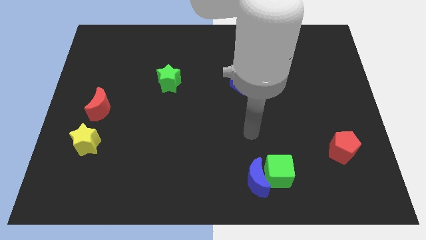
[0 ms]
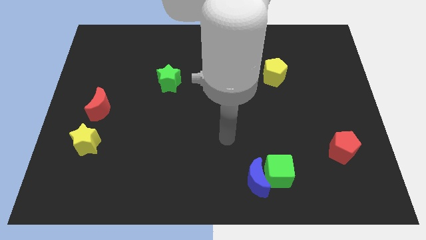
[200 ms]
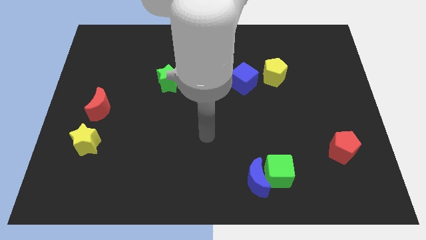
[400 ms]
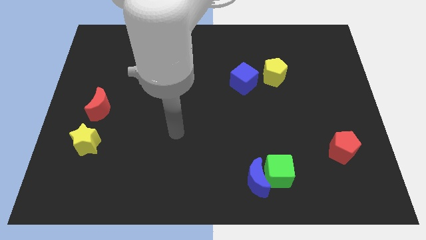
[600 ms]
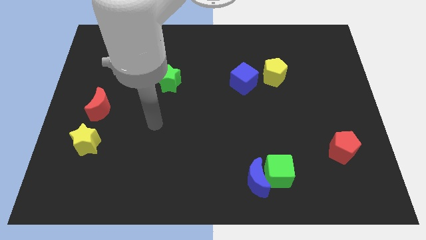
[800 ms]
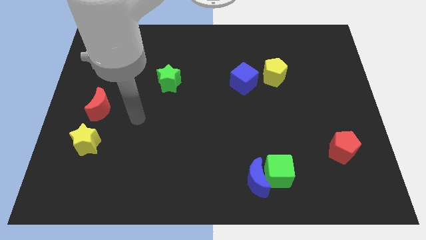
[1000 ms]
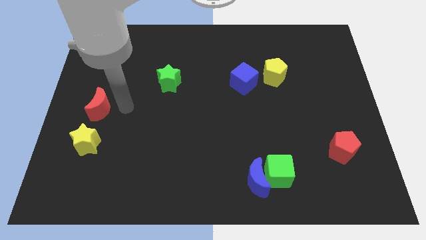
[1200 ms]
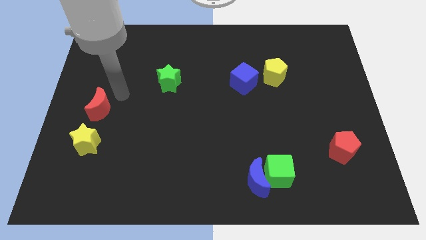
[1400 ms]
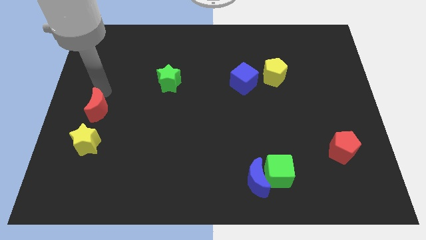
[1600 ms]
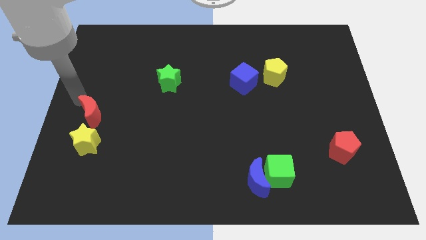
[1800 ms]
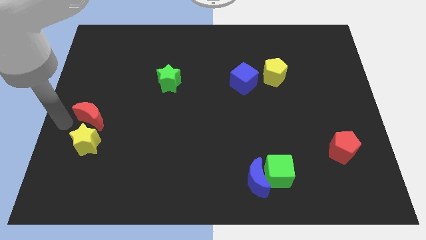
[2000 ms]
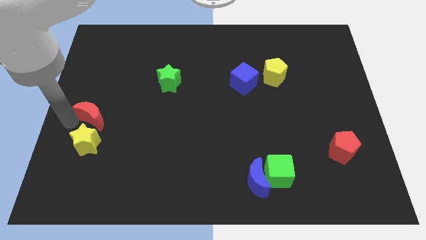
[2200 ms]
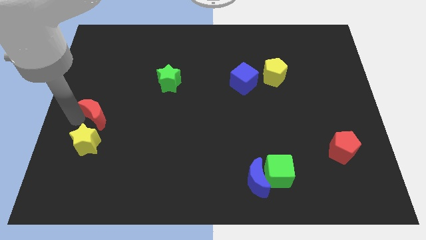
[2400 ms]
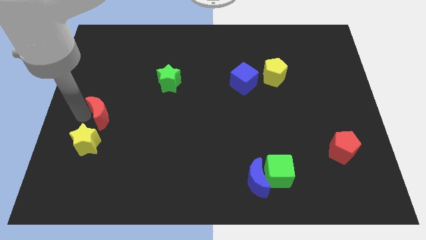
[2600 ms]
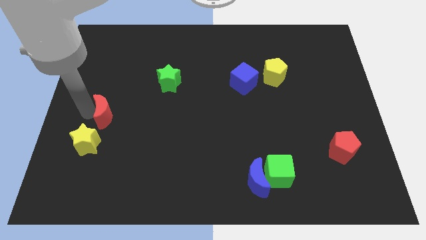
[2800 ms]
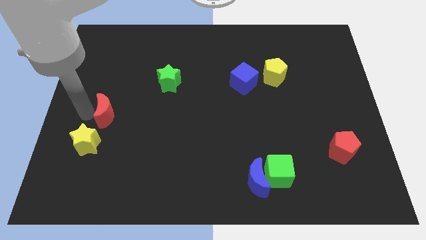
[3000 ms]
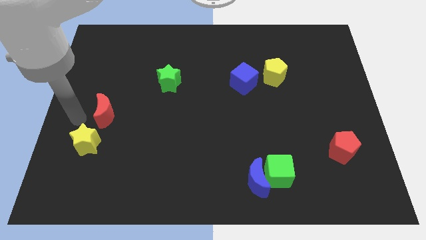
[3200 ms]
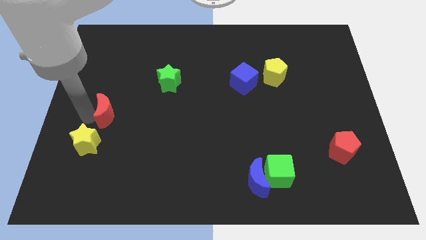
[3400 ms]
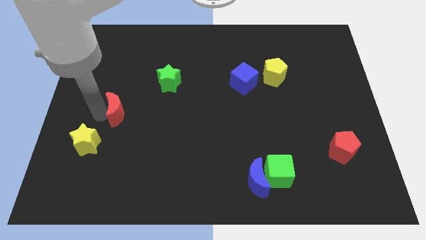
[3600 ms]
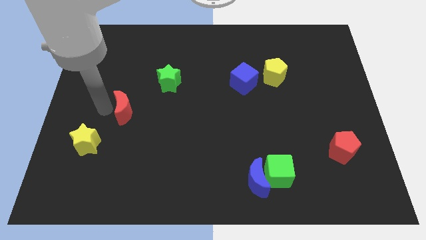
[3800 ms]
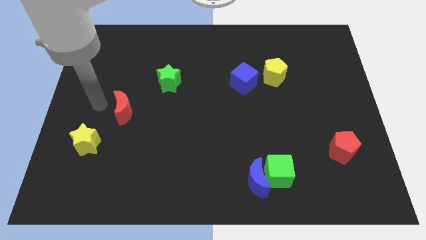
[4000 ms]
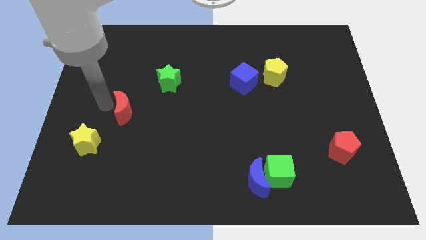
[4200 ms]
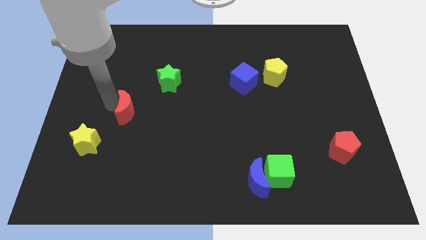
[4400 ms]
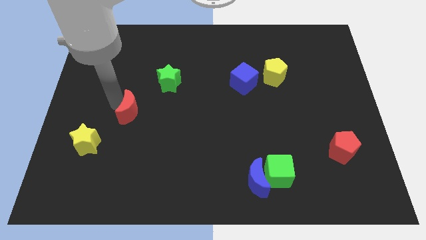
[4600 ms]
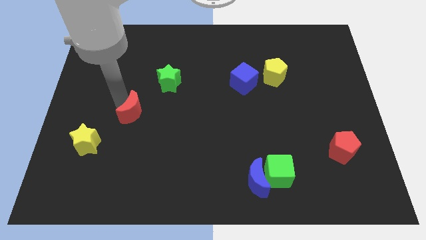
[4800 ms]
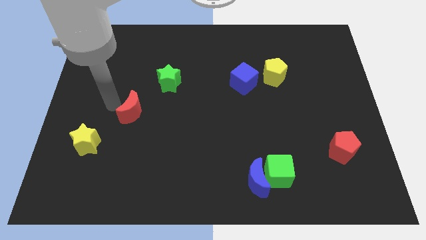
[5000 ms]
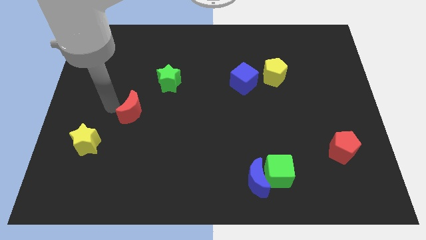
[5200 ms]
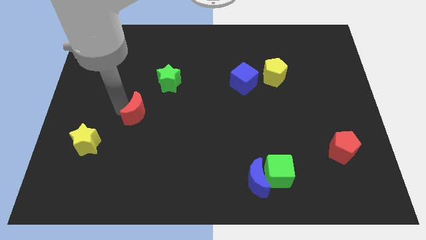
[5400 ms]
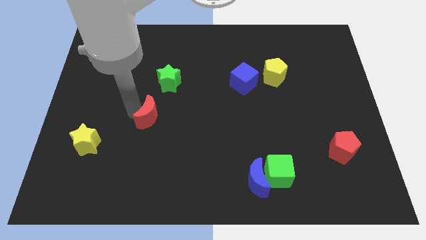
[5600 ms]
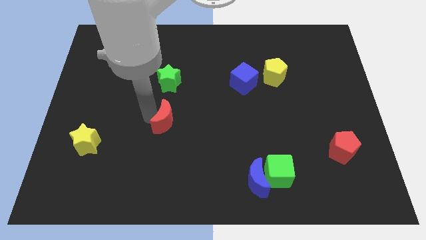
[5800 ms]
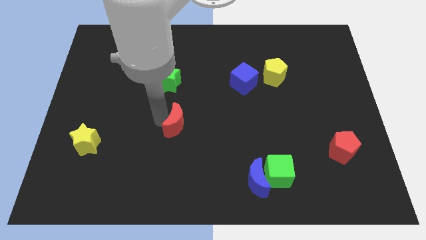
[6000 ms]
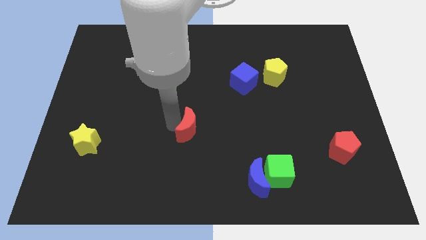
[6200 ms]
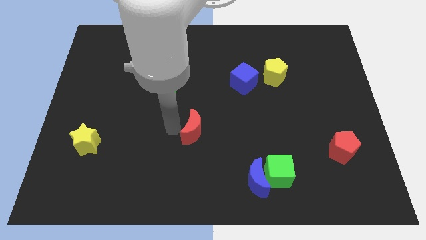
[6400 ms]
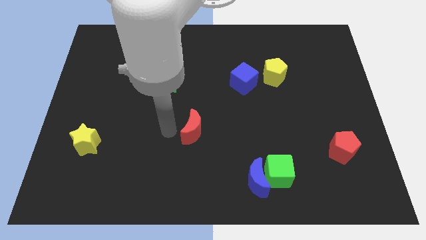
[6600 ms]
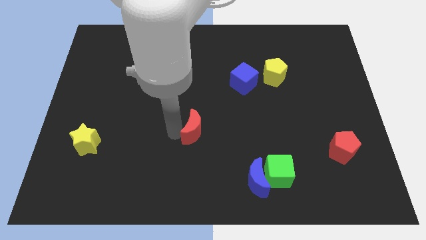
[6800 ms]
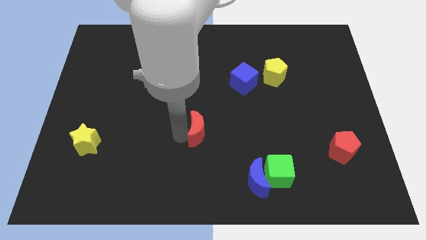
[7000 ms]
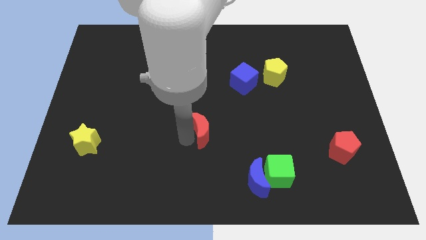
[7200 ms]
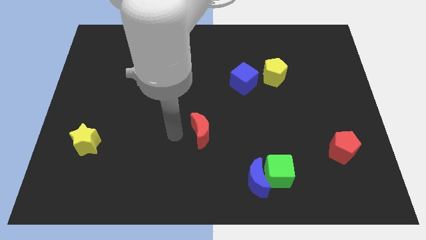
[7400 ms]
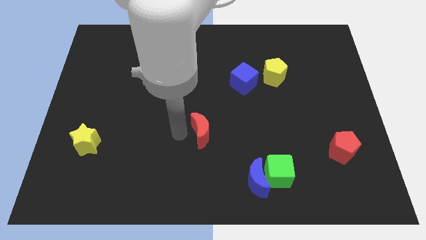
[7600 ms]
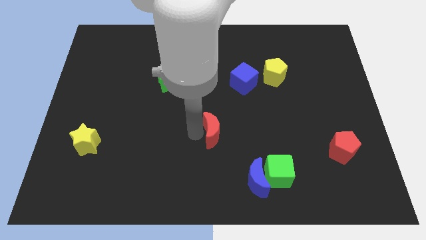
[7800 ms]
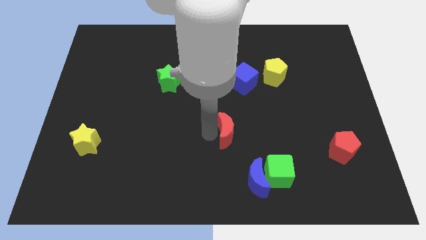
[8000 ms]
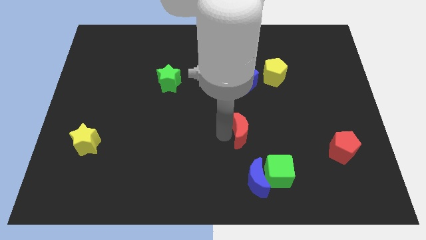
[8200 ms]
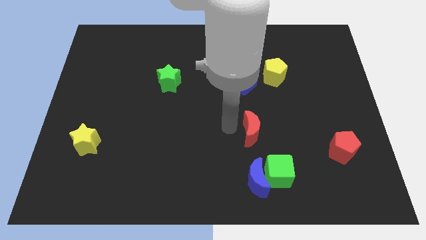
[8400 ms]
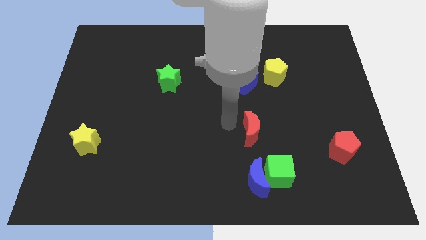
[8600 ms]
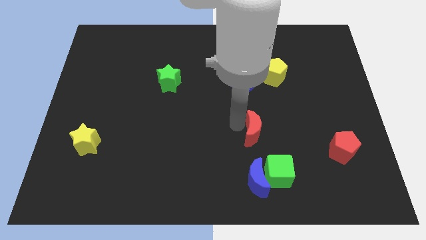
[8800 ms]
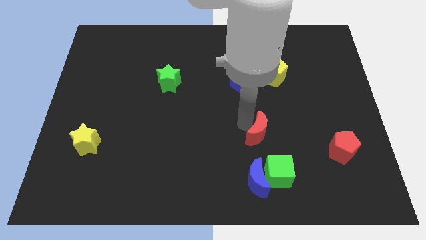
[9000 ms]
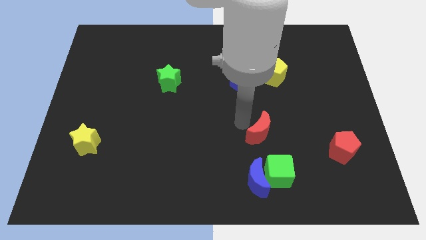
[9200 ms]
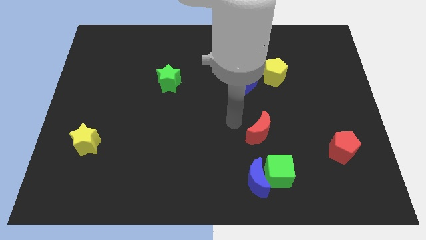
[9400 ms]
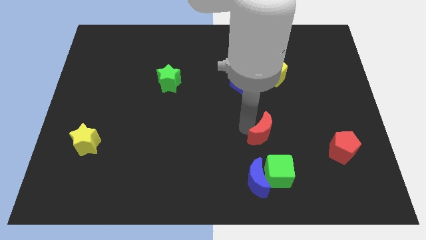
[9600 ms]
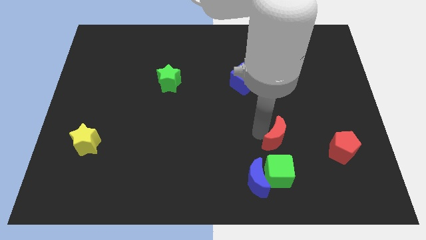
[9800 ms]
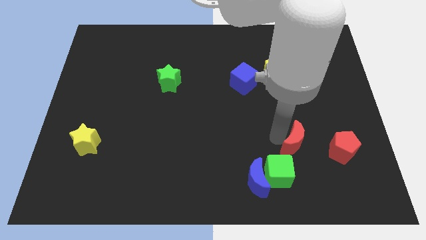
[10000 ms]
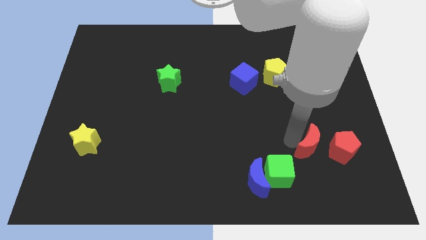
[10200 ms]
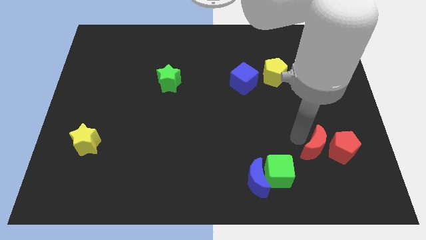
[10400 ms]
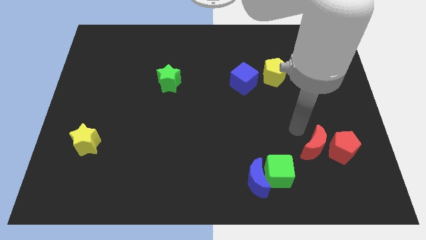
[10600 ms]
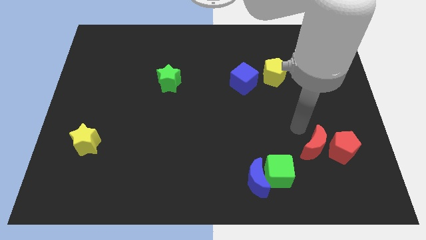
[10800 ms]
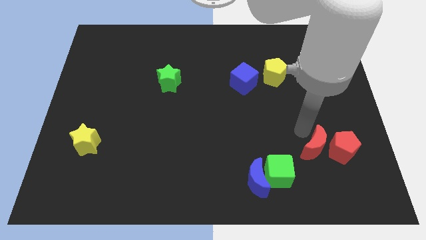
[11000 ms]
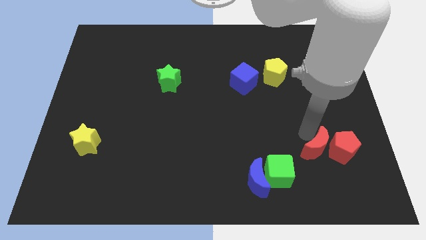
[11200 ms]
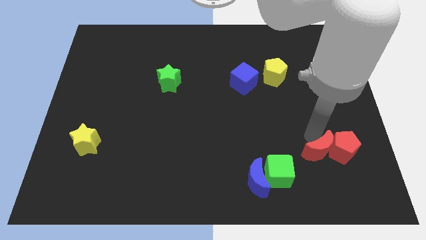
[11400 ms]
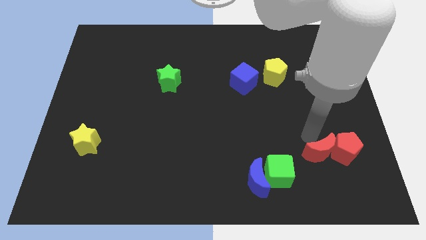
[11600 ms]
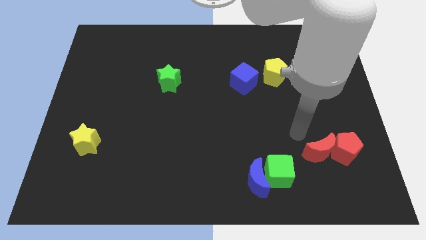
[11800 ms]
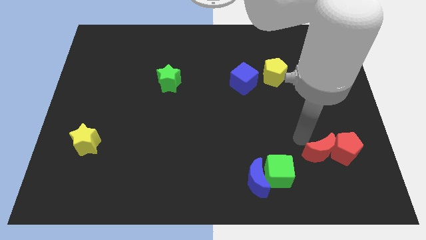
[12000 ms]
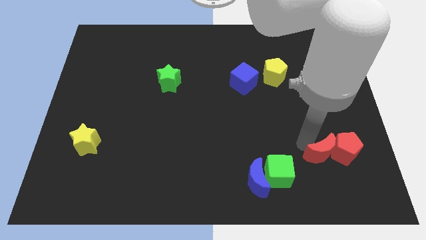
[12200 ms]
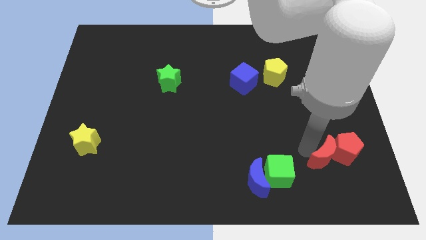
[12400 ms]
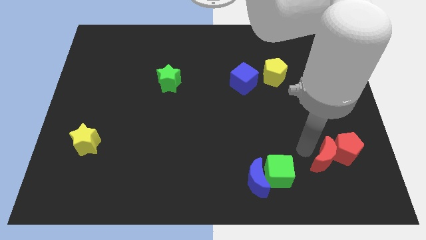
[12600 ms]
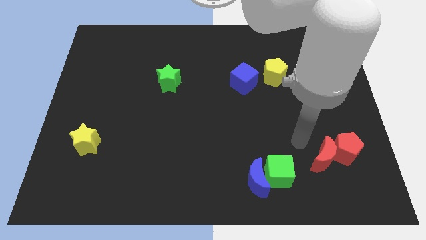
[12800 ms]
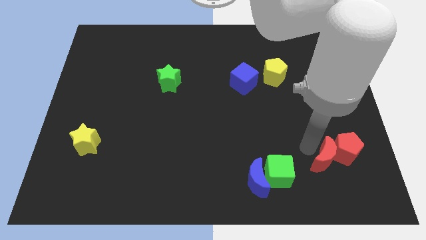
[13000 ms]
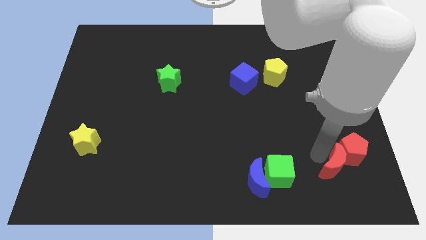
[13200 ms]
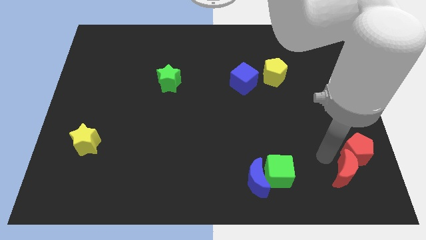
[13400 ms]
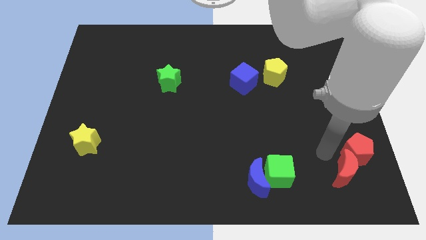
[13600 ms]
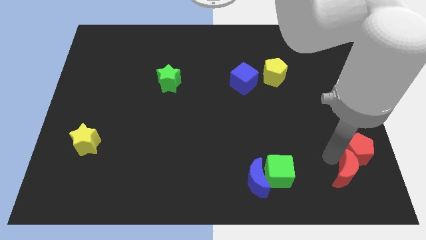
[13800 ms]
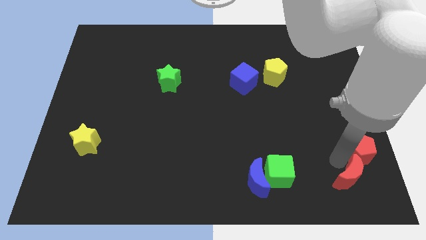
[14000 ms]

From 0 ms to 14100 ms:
move the red moon to the bottom right corner
